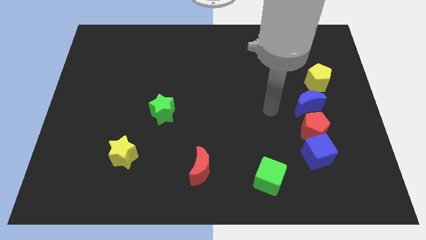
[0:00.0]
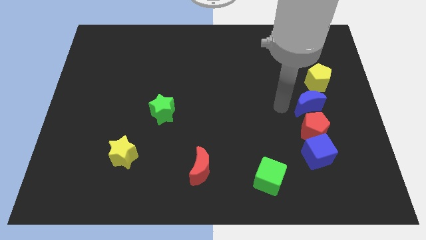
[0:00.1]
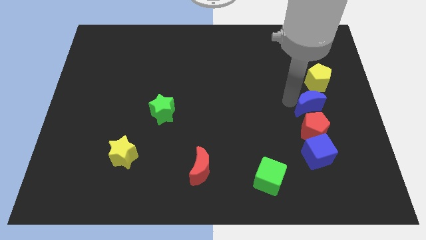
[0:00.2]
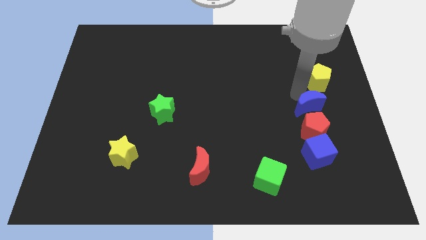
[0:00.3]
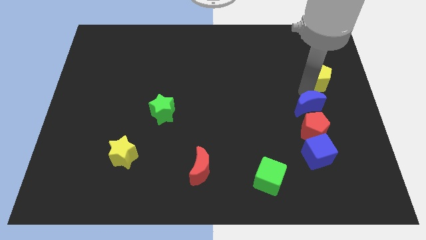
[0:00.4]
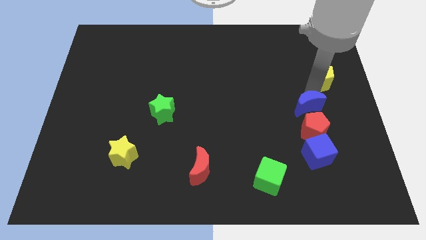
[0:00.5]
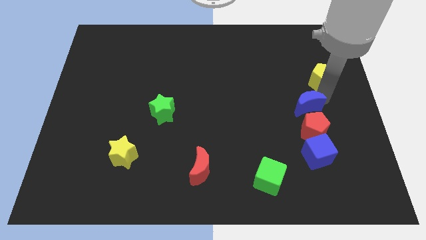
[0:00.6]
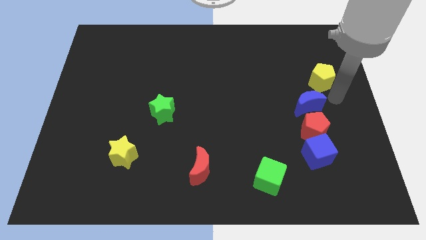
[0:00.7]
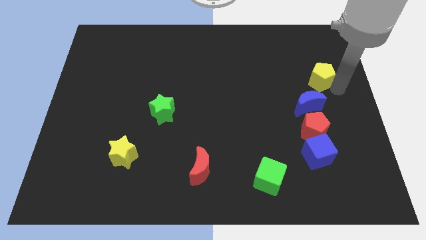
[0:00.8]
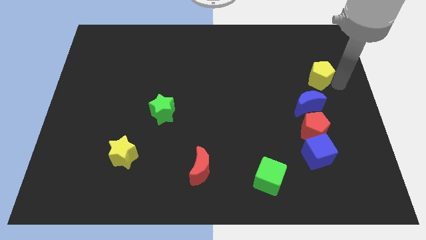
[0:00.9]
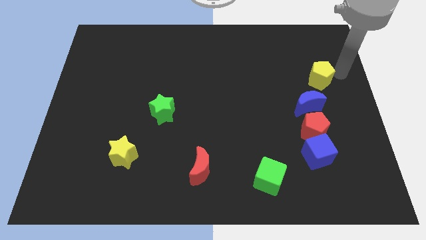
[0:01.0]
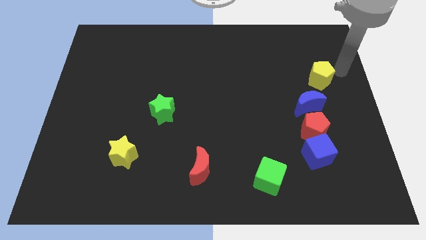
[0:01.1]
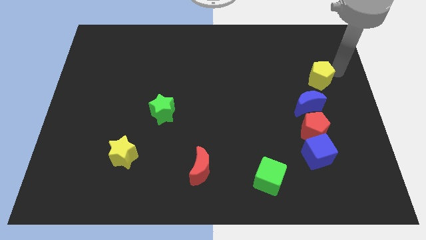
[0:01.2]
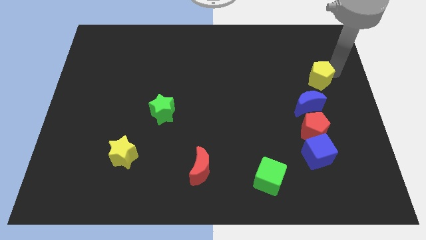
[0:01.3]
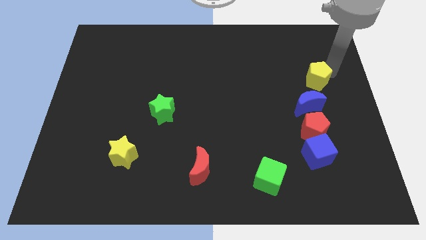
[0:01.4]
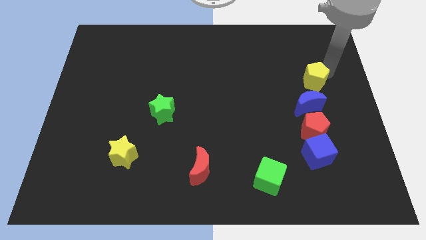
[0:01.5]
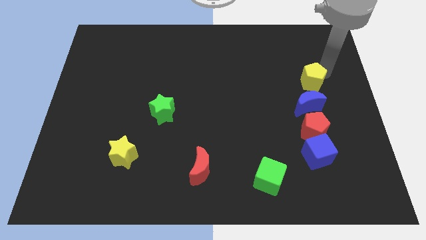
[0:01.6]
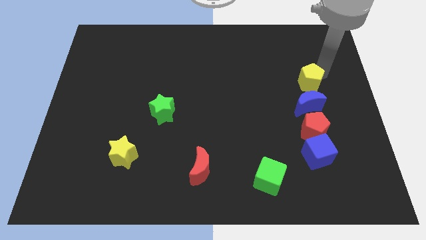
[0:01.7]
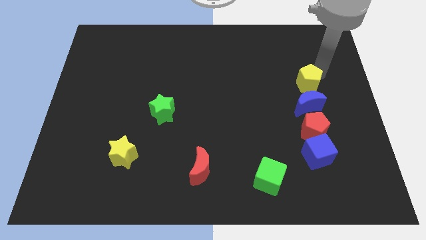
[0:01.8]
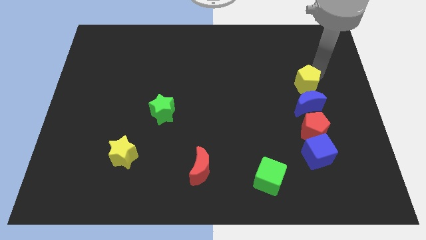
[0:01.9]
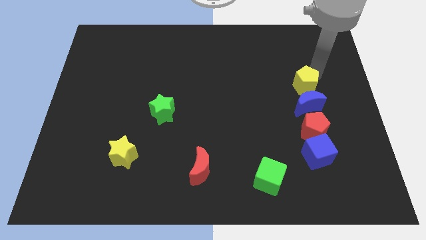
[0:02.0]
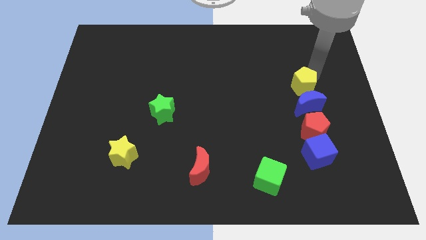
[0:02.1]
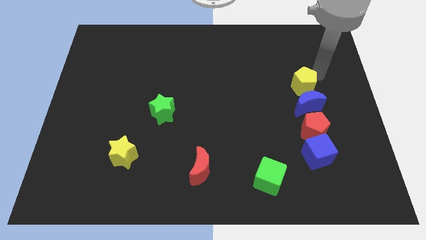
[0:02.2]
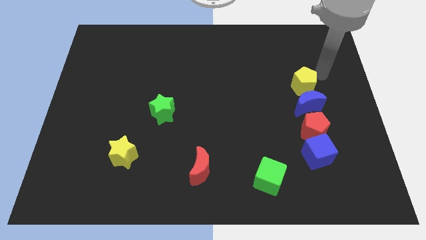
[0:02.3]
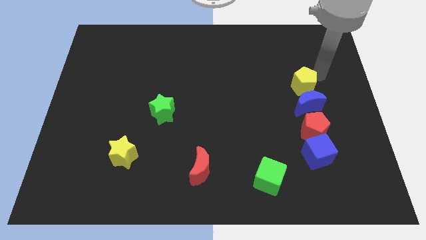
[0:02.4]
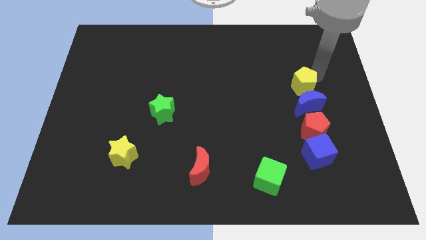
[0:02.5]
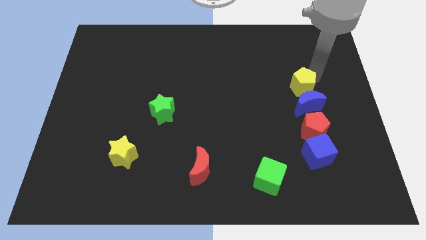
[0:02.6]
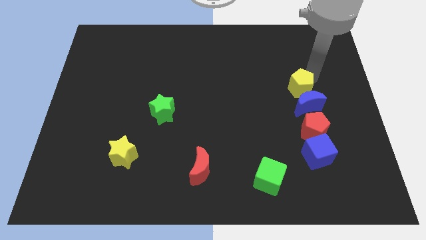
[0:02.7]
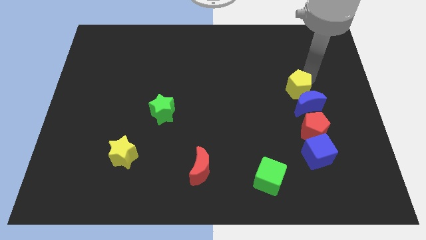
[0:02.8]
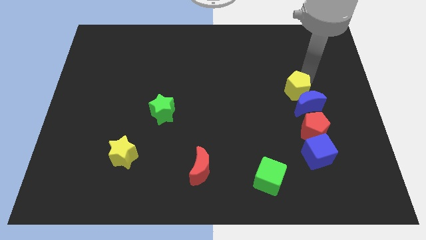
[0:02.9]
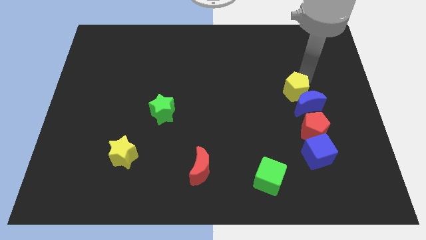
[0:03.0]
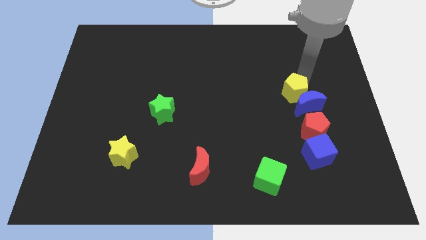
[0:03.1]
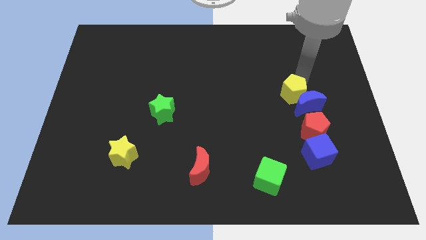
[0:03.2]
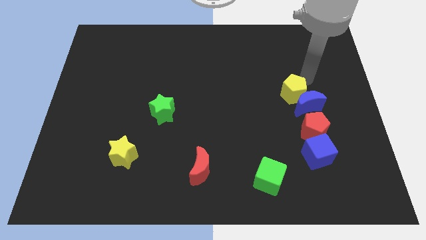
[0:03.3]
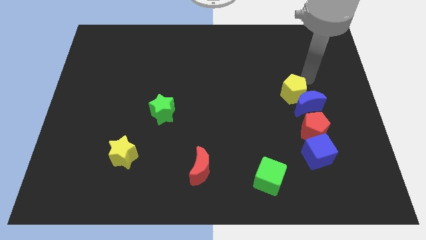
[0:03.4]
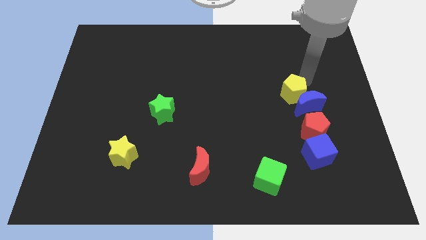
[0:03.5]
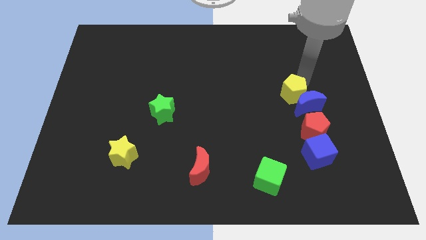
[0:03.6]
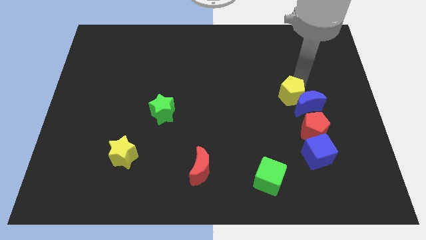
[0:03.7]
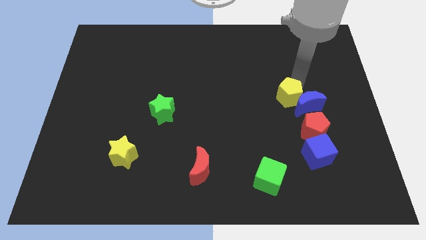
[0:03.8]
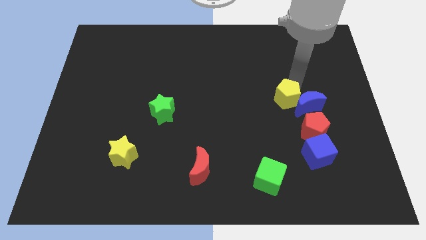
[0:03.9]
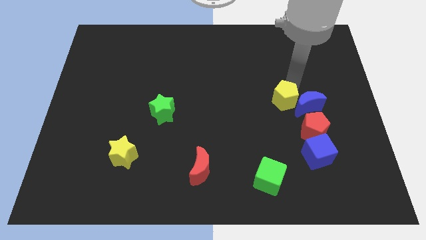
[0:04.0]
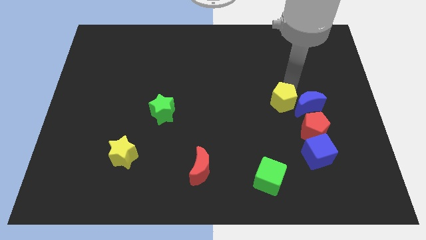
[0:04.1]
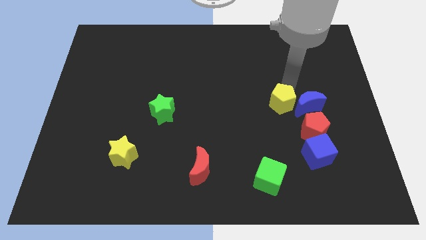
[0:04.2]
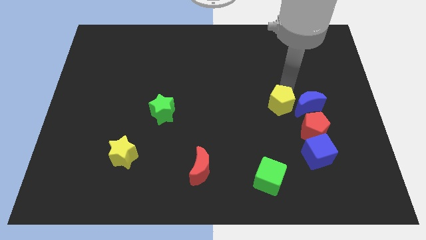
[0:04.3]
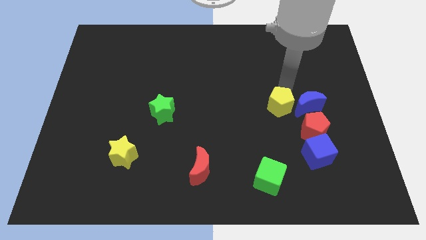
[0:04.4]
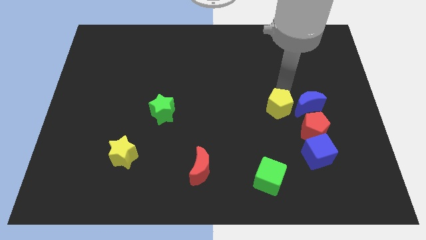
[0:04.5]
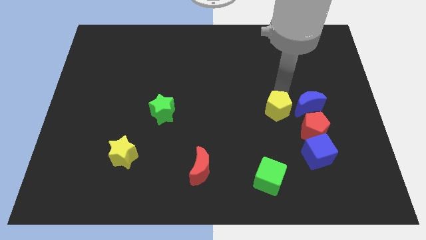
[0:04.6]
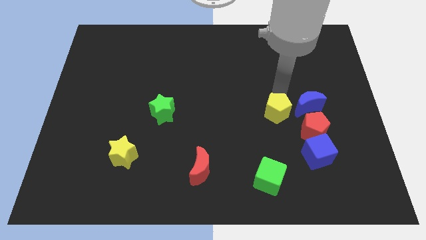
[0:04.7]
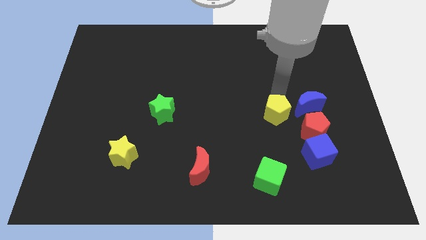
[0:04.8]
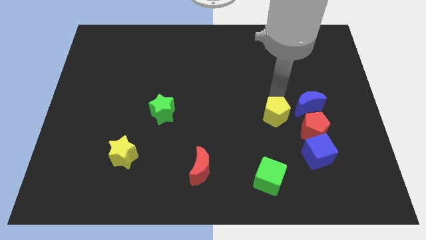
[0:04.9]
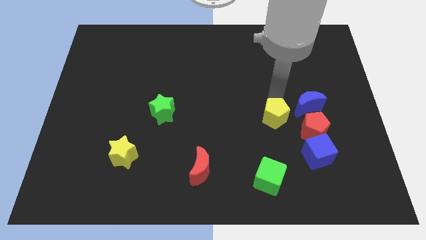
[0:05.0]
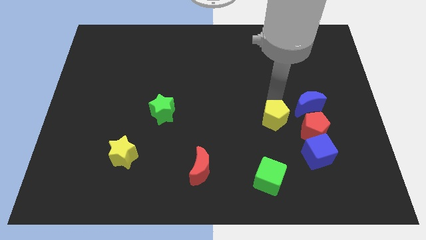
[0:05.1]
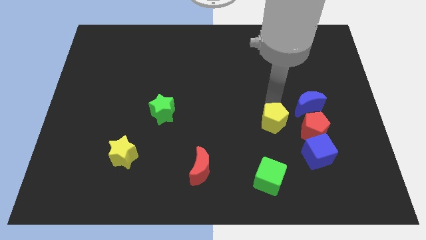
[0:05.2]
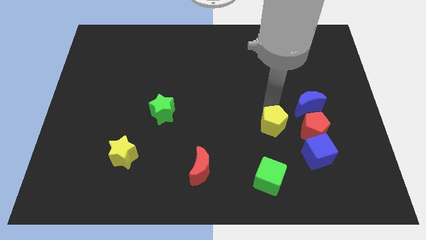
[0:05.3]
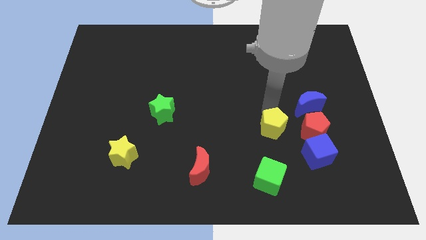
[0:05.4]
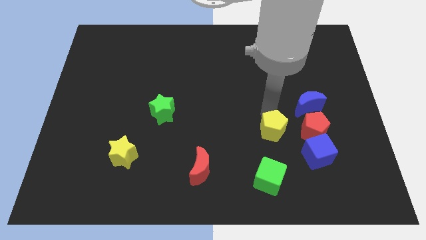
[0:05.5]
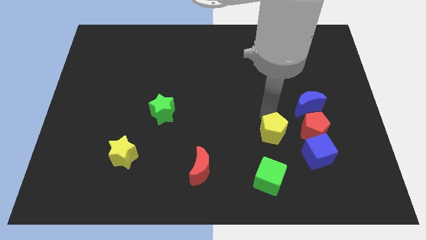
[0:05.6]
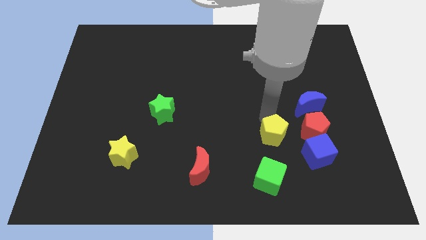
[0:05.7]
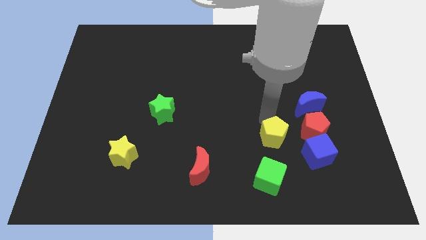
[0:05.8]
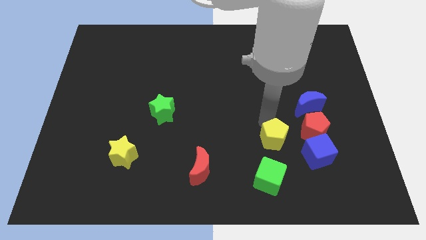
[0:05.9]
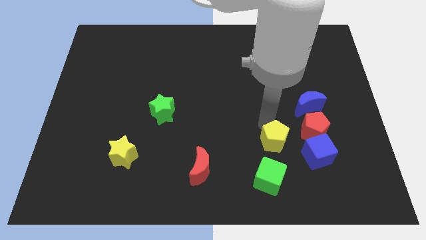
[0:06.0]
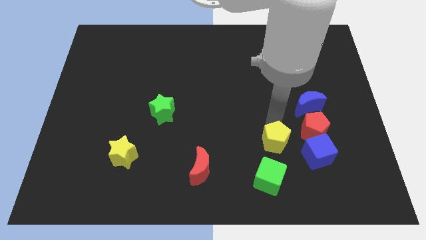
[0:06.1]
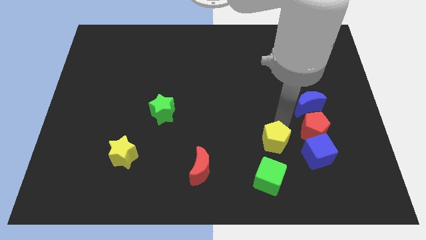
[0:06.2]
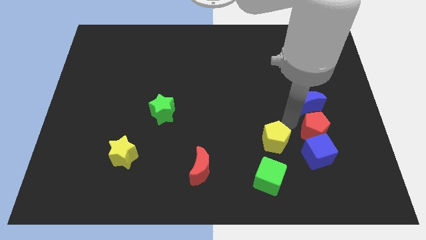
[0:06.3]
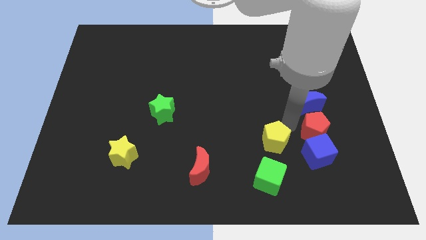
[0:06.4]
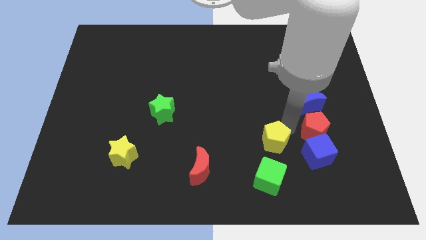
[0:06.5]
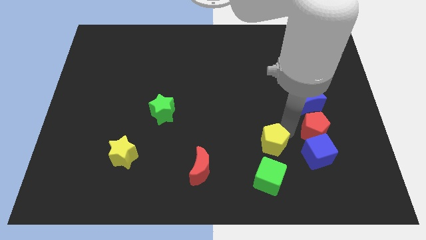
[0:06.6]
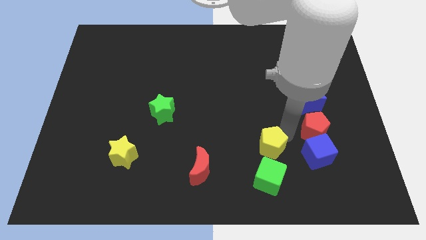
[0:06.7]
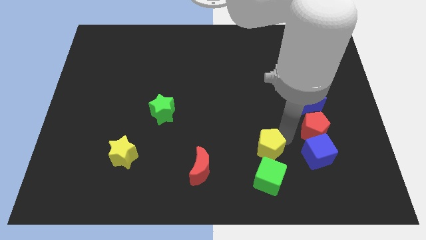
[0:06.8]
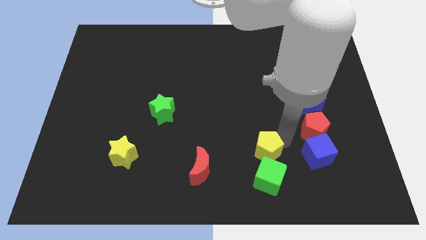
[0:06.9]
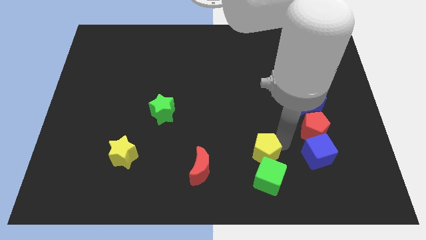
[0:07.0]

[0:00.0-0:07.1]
slide the yellow pentagon right of the red moon

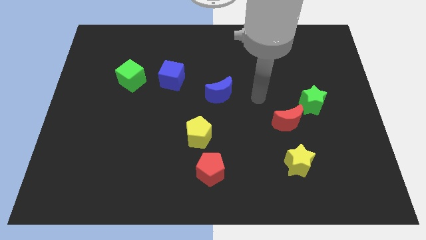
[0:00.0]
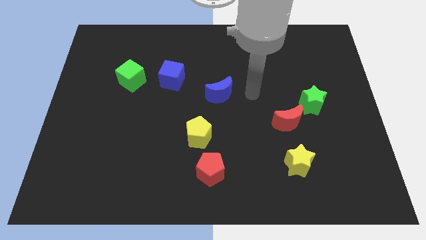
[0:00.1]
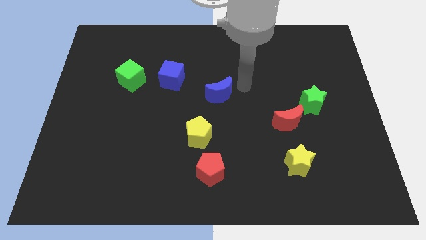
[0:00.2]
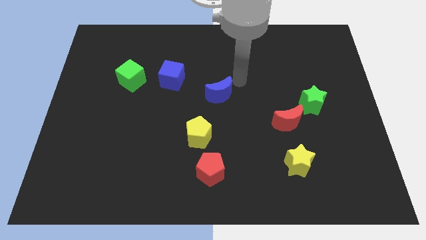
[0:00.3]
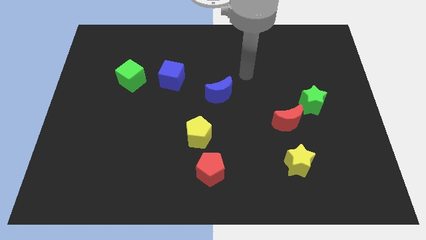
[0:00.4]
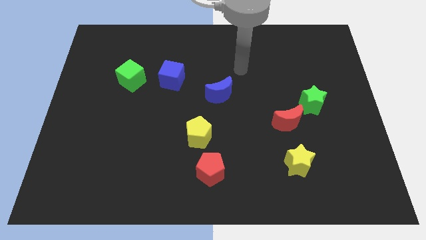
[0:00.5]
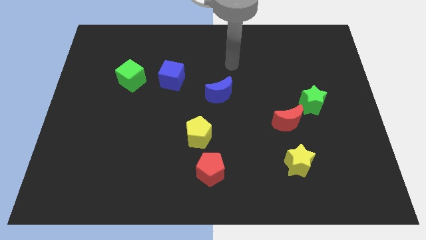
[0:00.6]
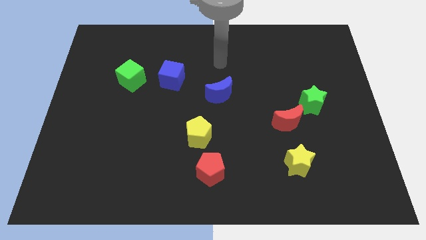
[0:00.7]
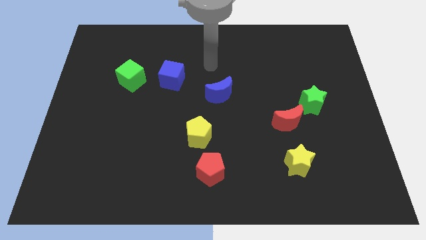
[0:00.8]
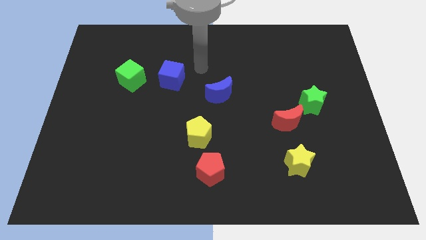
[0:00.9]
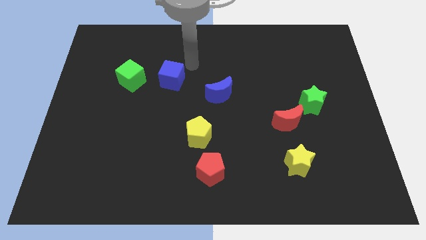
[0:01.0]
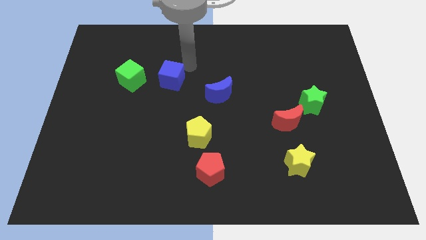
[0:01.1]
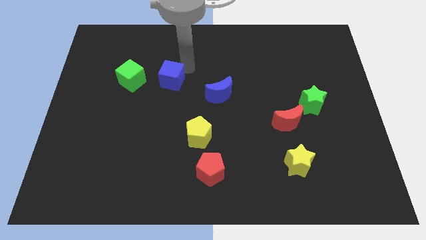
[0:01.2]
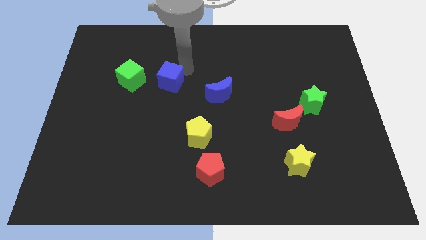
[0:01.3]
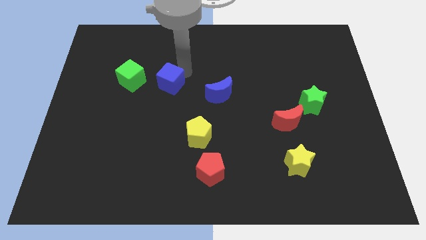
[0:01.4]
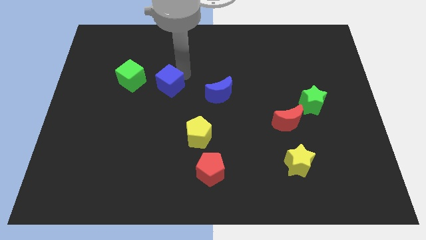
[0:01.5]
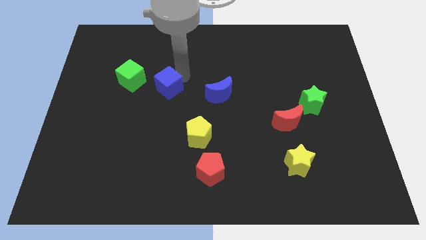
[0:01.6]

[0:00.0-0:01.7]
slide the blue cube to the bottom right side of the green cube
